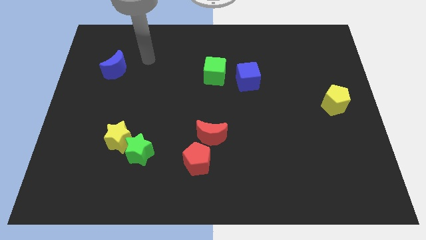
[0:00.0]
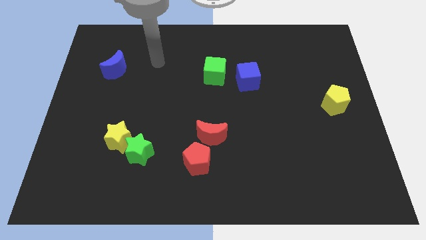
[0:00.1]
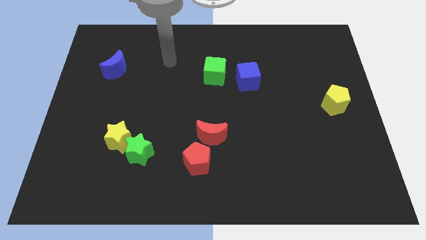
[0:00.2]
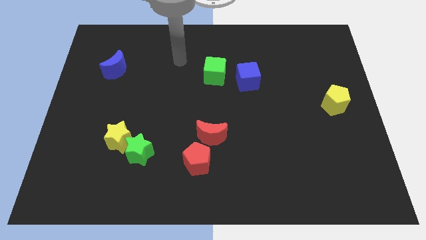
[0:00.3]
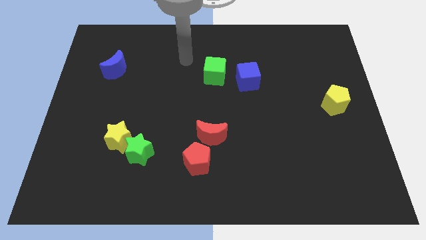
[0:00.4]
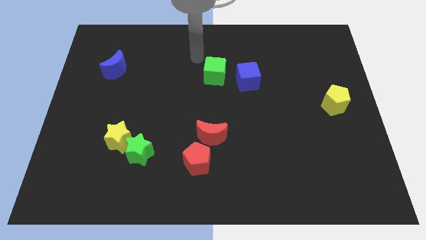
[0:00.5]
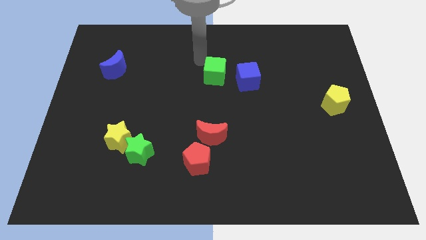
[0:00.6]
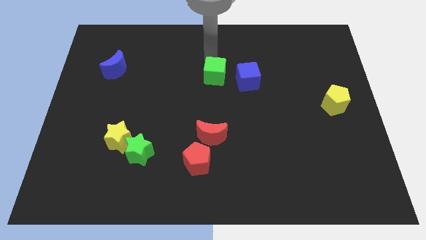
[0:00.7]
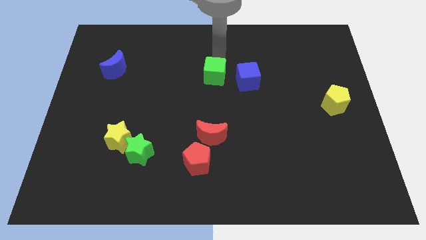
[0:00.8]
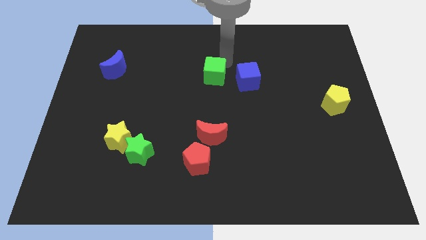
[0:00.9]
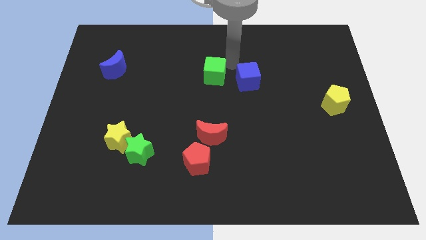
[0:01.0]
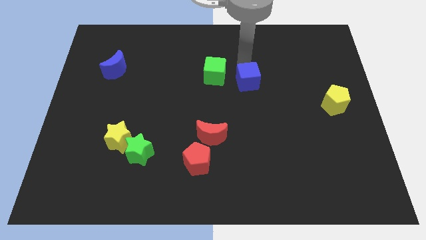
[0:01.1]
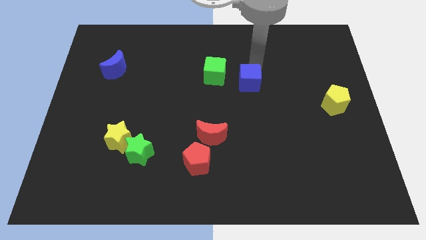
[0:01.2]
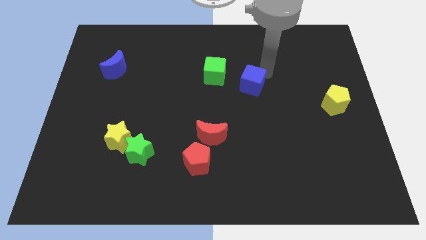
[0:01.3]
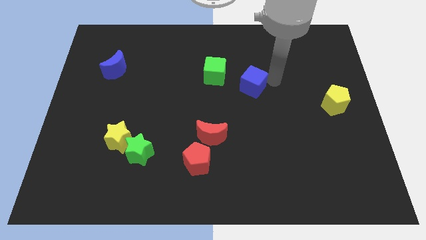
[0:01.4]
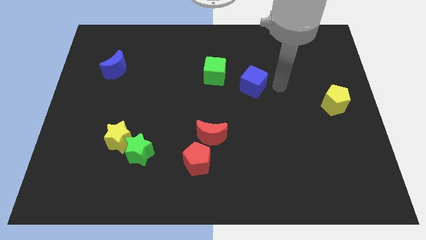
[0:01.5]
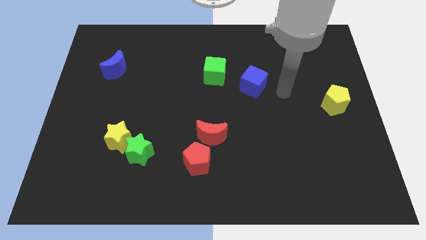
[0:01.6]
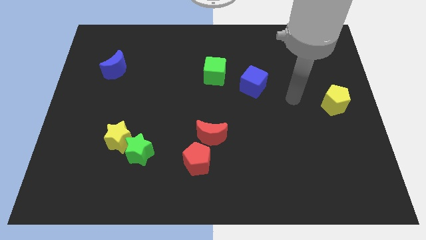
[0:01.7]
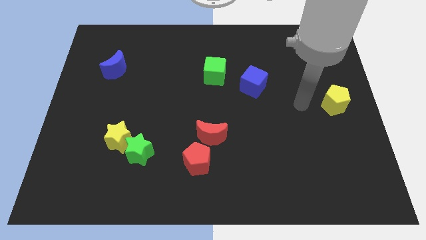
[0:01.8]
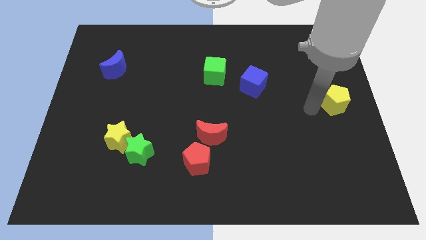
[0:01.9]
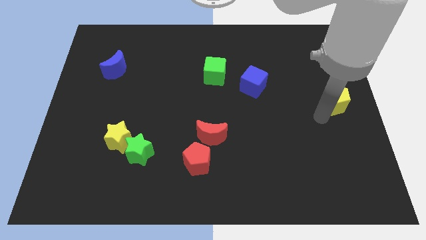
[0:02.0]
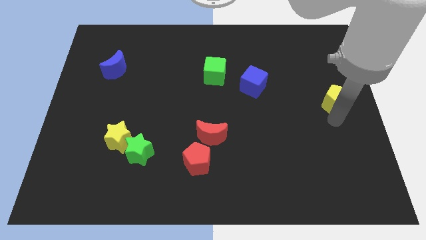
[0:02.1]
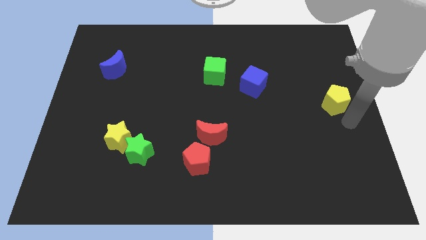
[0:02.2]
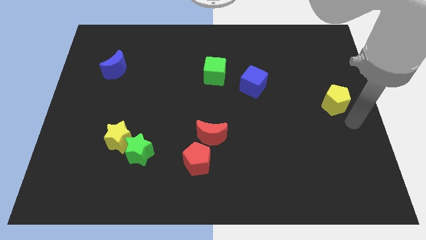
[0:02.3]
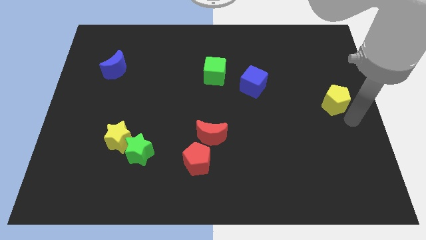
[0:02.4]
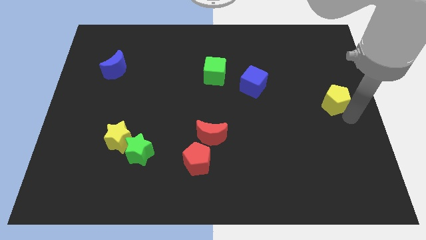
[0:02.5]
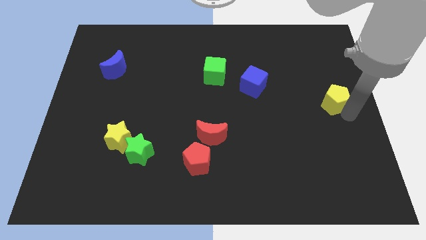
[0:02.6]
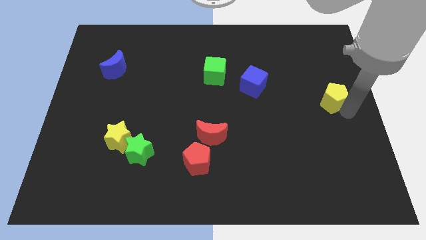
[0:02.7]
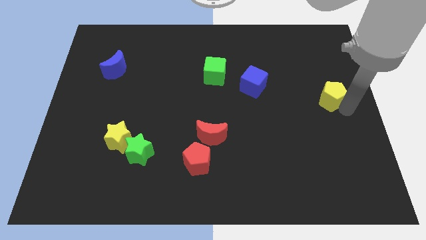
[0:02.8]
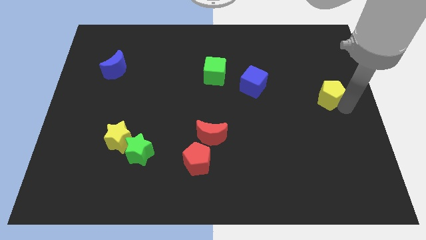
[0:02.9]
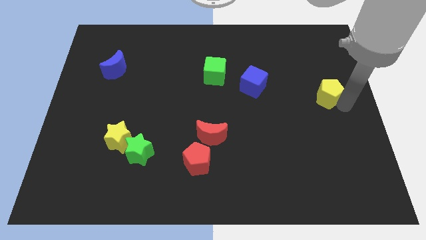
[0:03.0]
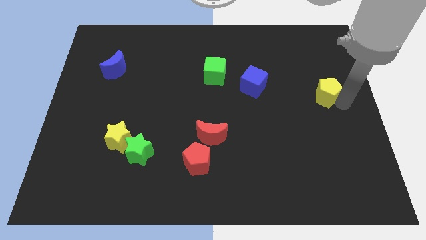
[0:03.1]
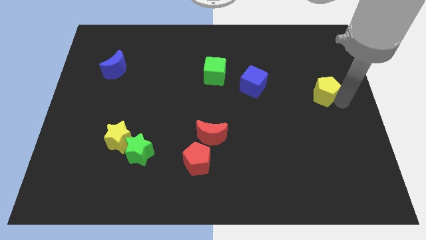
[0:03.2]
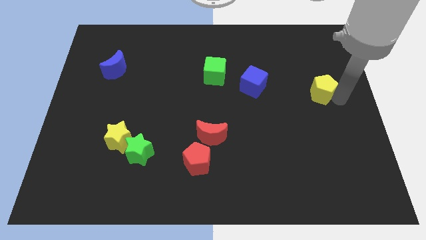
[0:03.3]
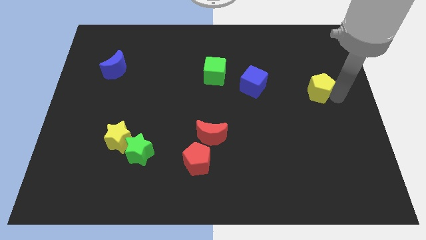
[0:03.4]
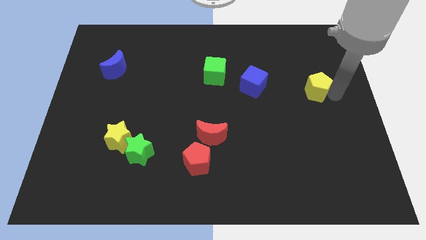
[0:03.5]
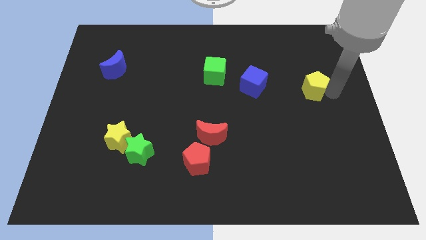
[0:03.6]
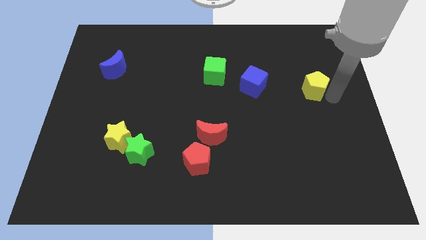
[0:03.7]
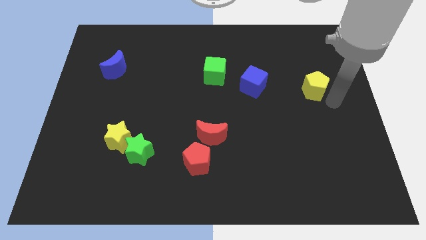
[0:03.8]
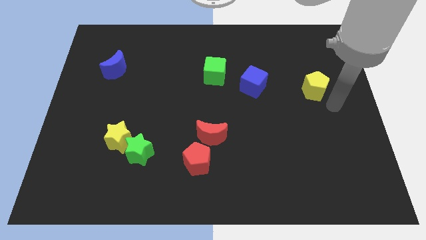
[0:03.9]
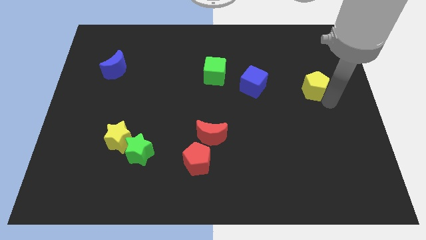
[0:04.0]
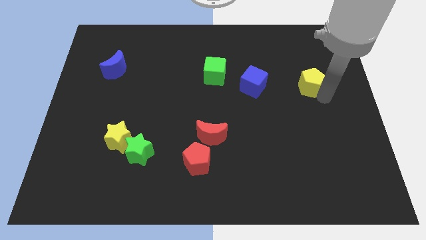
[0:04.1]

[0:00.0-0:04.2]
move the yellow pentagon a bit upwards and left diagonally

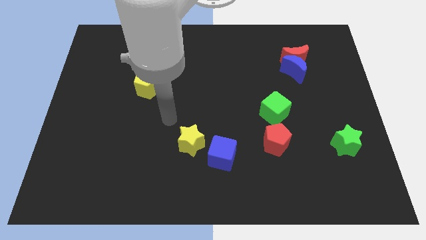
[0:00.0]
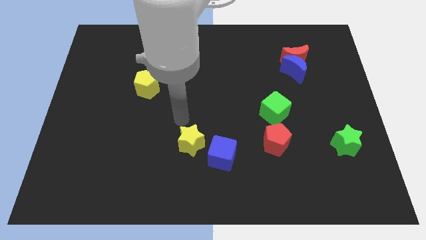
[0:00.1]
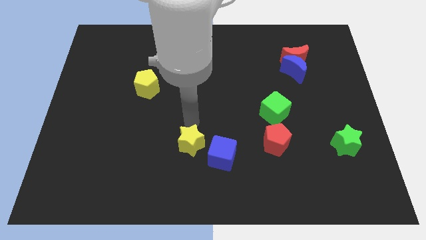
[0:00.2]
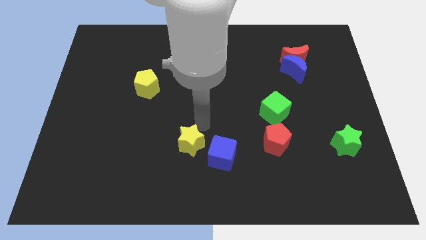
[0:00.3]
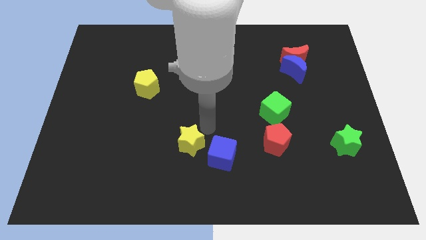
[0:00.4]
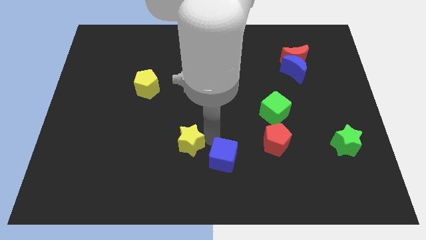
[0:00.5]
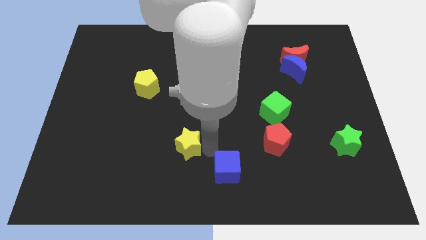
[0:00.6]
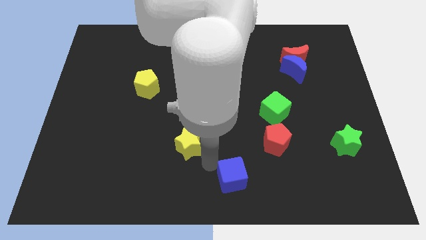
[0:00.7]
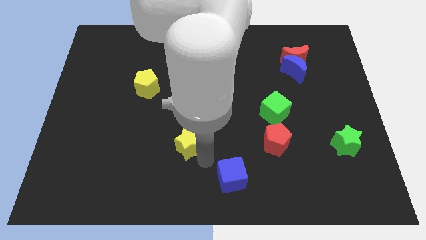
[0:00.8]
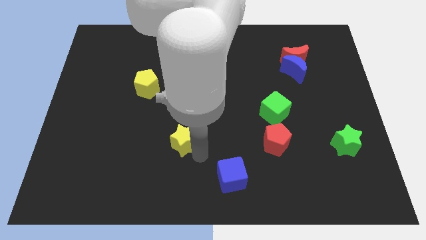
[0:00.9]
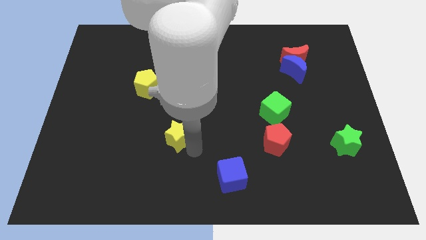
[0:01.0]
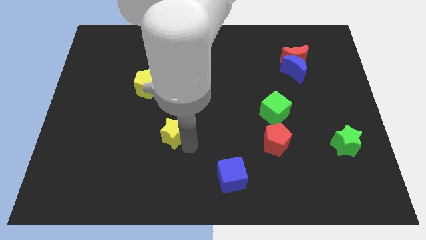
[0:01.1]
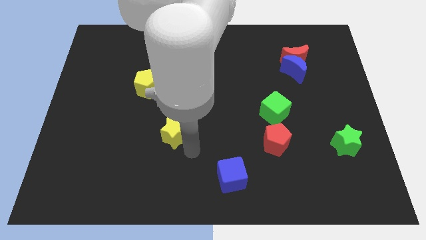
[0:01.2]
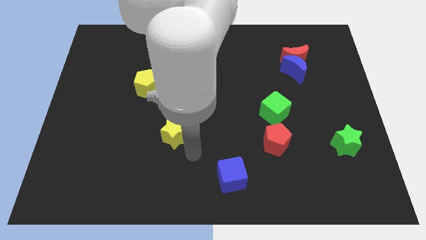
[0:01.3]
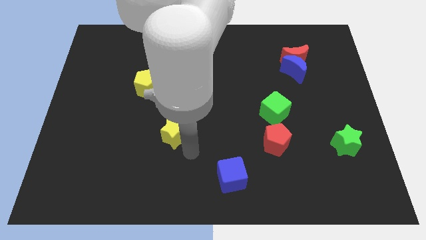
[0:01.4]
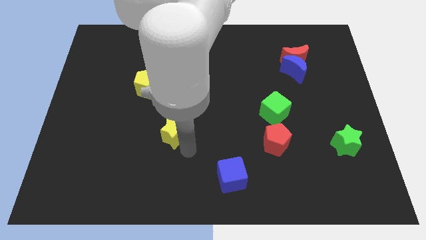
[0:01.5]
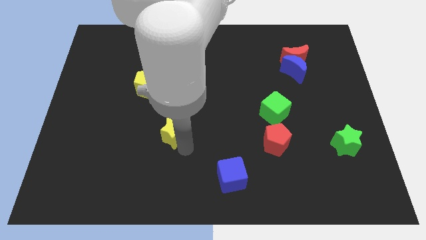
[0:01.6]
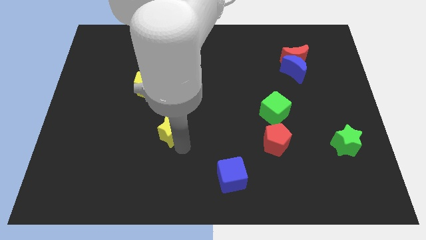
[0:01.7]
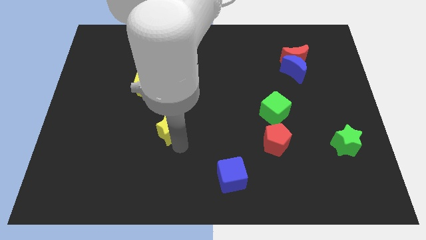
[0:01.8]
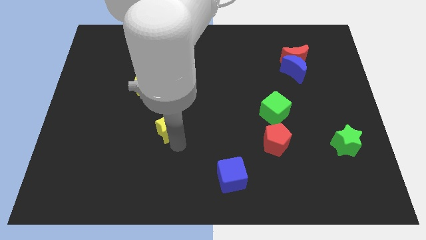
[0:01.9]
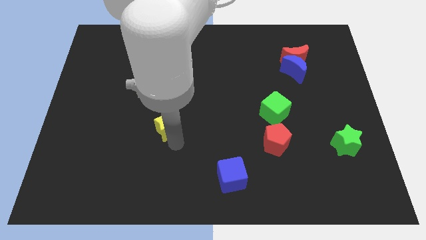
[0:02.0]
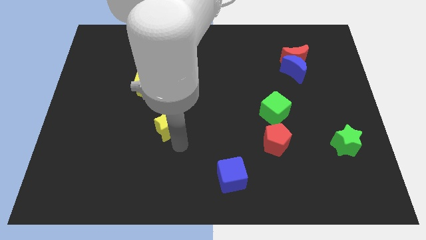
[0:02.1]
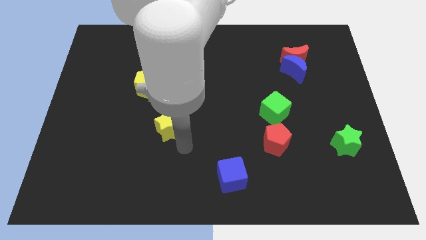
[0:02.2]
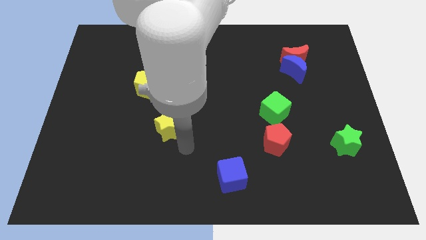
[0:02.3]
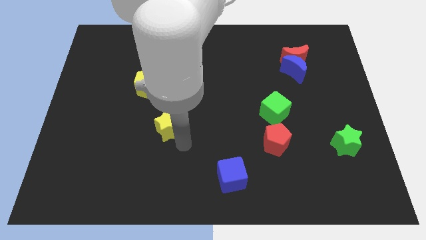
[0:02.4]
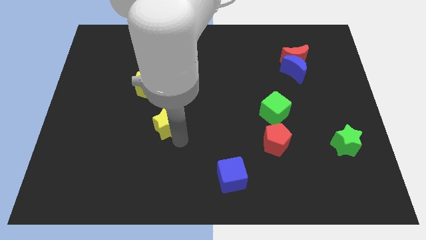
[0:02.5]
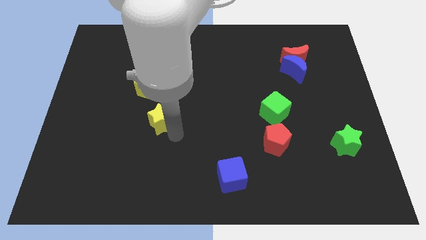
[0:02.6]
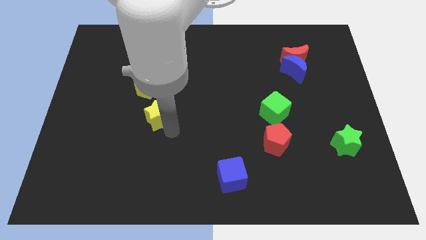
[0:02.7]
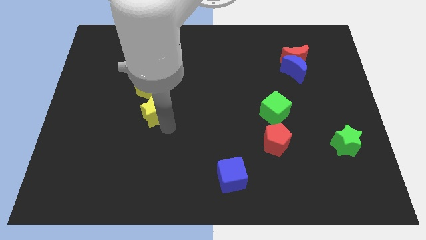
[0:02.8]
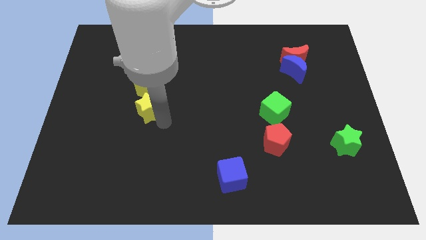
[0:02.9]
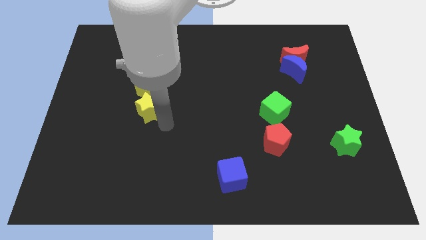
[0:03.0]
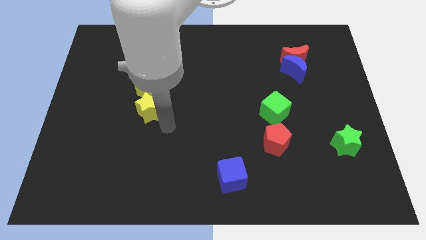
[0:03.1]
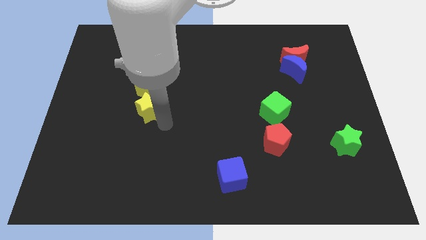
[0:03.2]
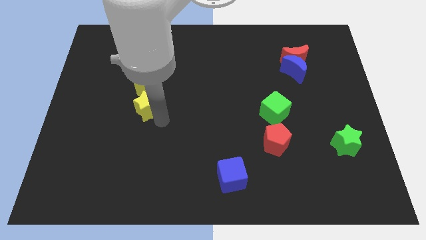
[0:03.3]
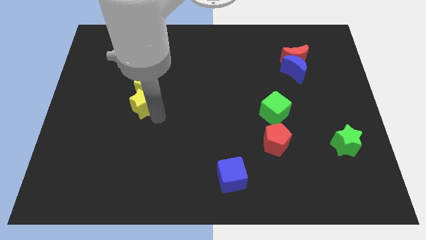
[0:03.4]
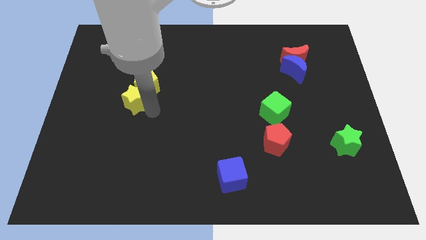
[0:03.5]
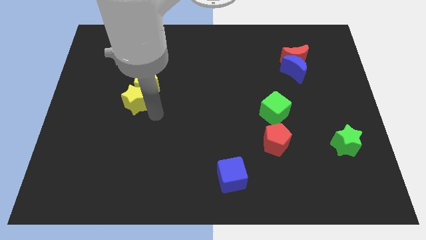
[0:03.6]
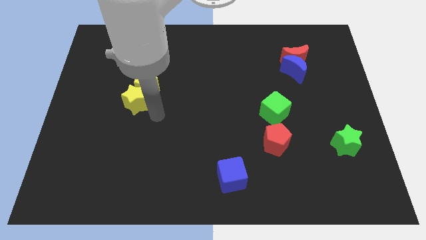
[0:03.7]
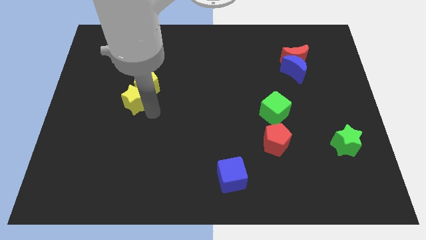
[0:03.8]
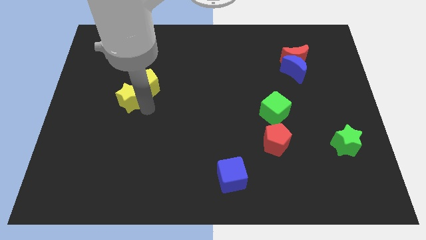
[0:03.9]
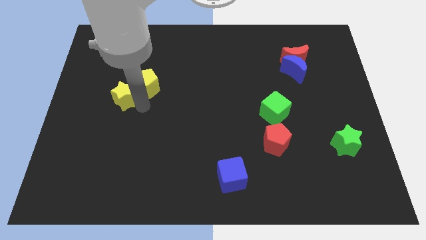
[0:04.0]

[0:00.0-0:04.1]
push the yellow star up and left diagonally
